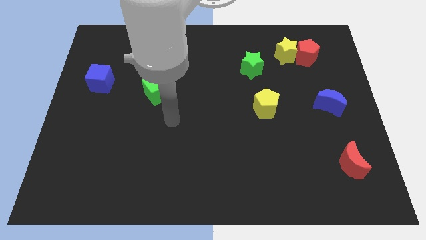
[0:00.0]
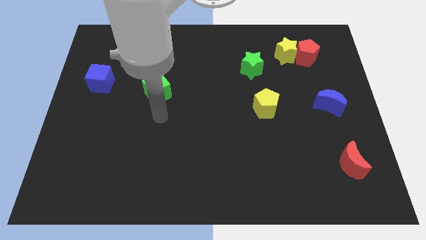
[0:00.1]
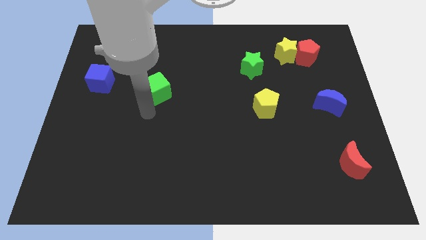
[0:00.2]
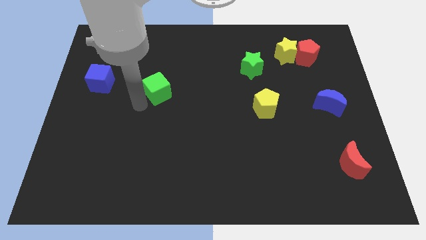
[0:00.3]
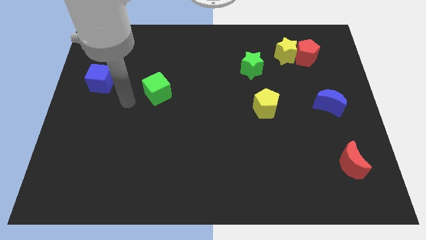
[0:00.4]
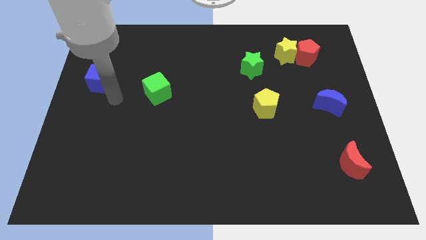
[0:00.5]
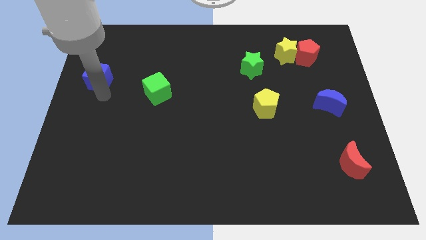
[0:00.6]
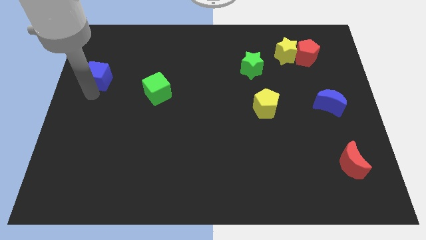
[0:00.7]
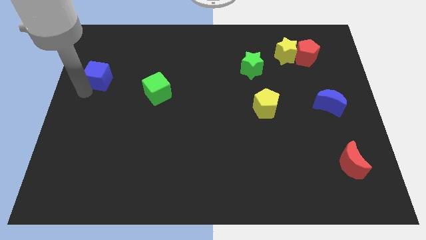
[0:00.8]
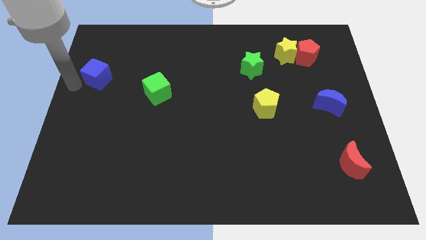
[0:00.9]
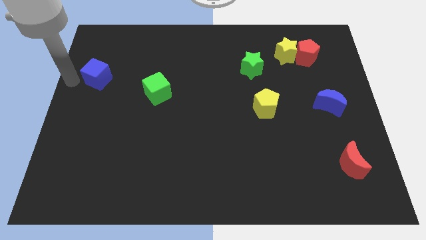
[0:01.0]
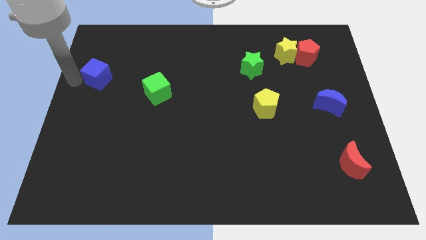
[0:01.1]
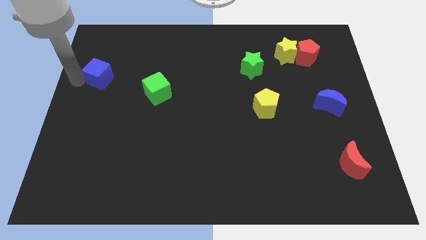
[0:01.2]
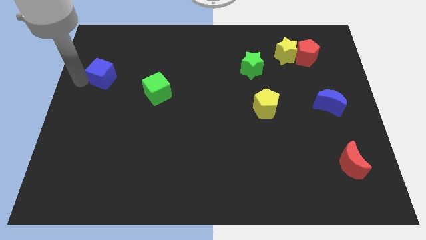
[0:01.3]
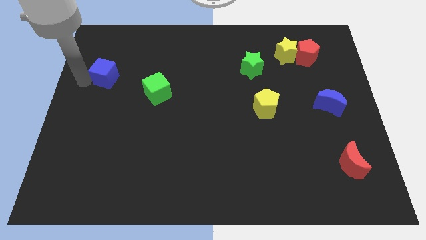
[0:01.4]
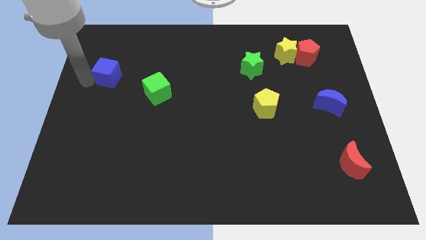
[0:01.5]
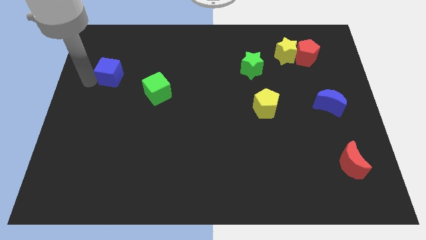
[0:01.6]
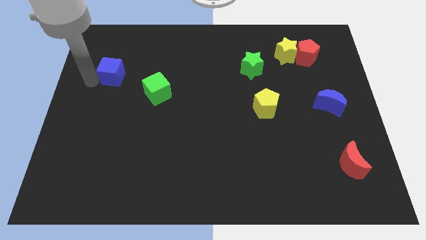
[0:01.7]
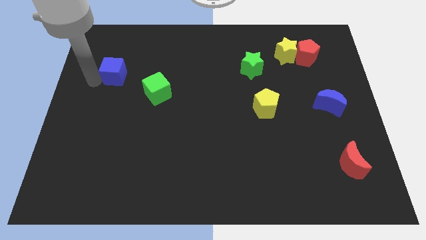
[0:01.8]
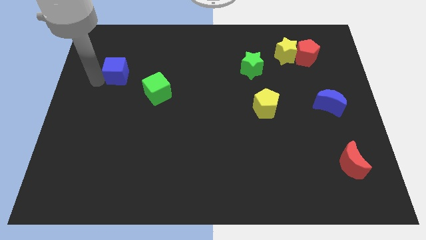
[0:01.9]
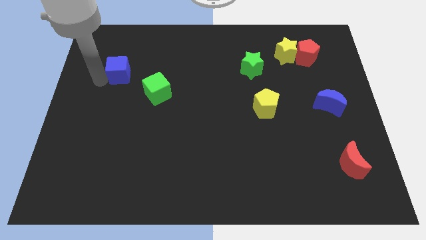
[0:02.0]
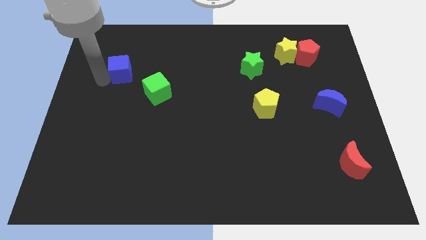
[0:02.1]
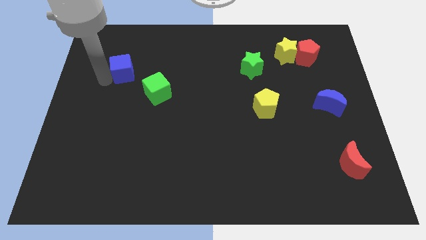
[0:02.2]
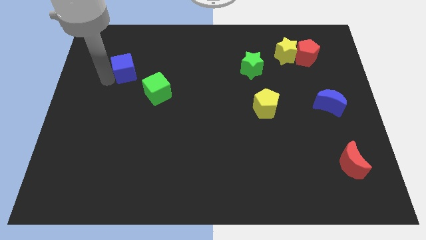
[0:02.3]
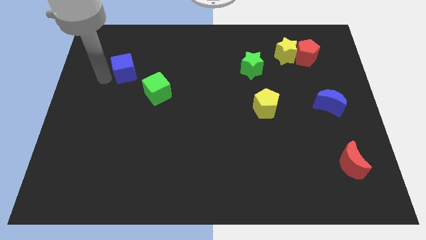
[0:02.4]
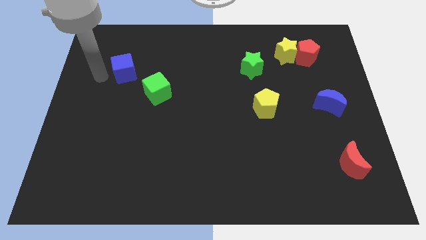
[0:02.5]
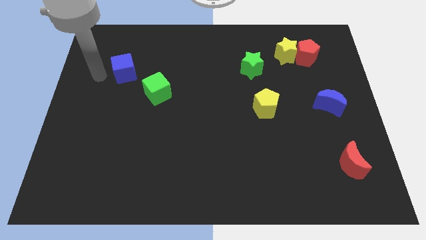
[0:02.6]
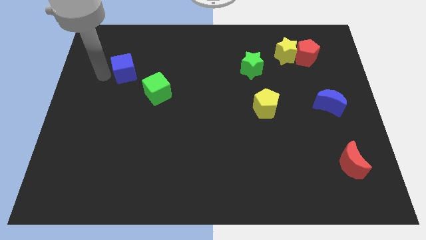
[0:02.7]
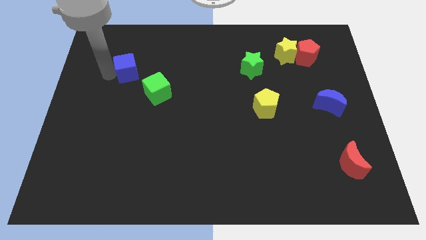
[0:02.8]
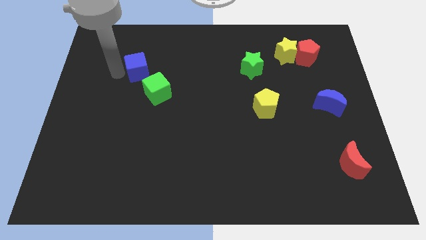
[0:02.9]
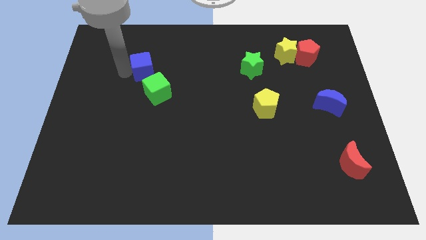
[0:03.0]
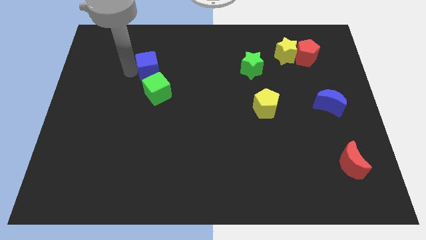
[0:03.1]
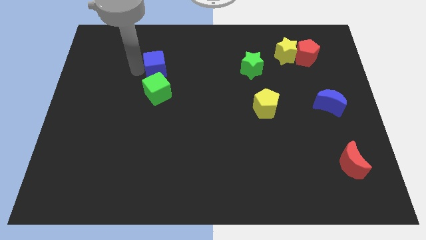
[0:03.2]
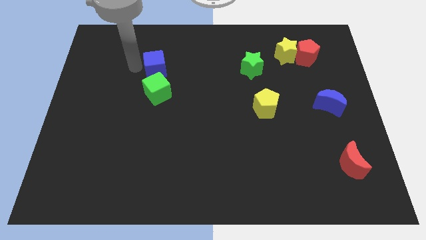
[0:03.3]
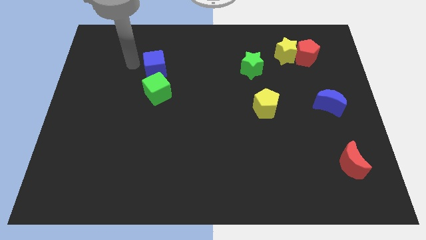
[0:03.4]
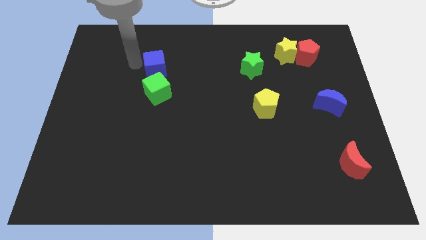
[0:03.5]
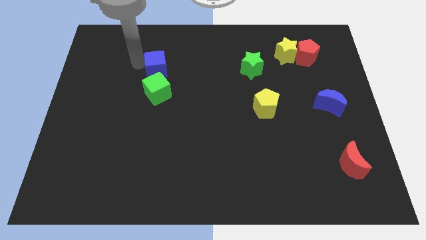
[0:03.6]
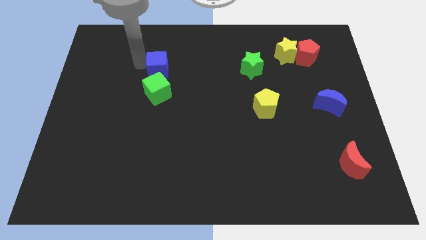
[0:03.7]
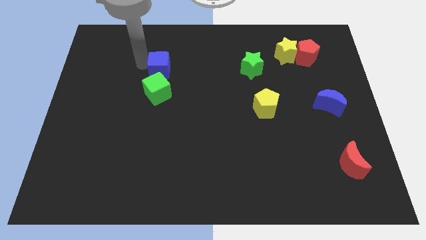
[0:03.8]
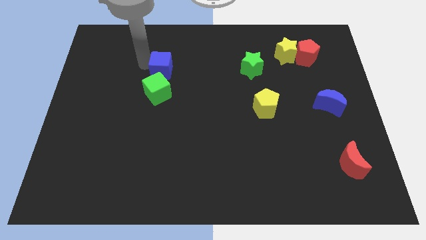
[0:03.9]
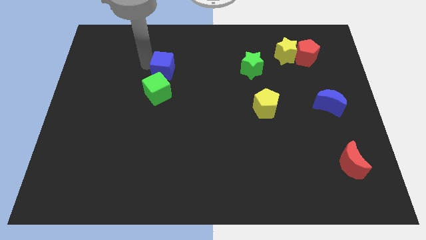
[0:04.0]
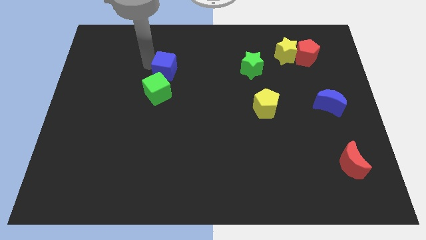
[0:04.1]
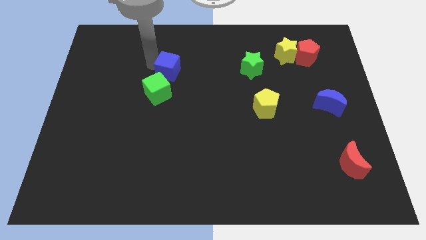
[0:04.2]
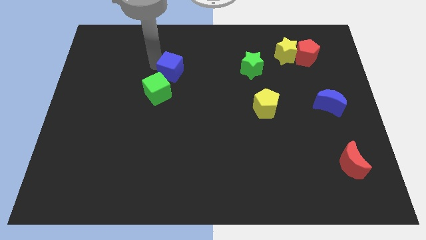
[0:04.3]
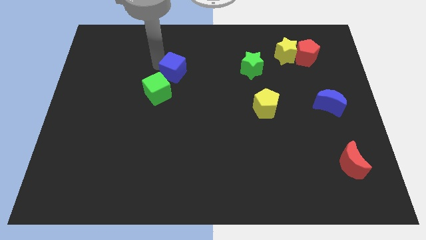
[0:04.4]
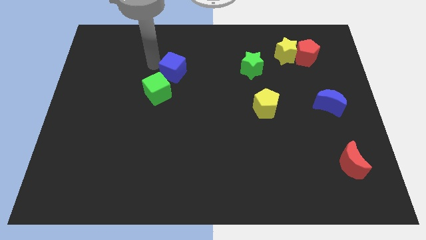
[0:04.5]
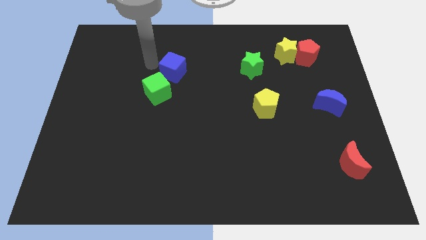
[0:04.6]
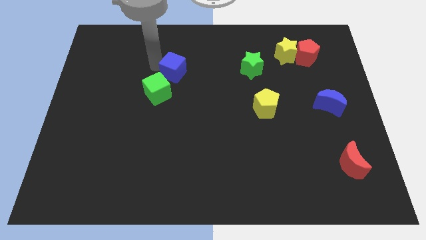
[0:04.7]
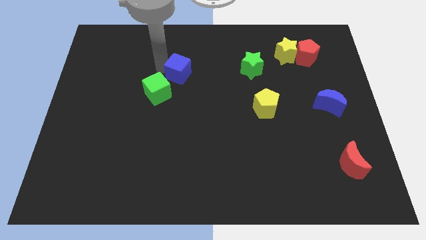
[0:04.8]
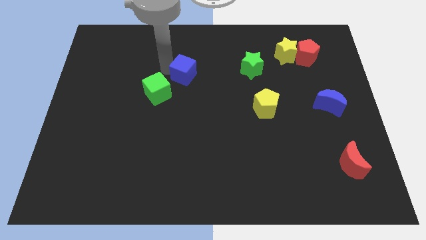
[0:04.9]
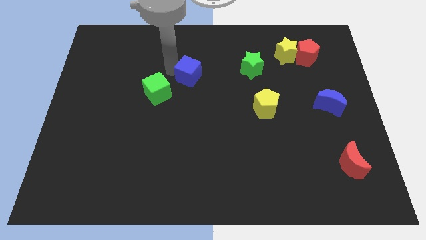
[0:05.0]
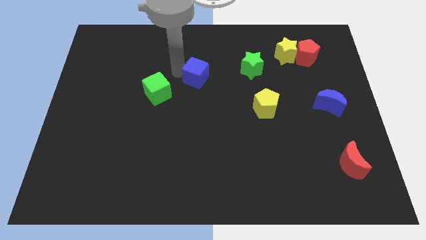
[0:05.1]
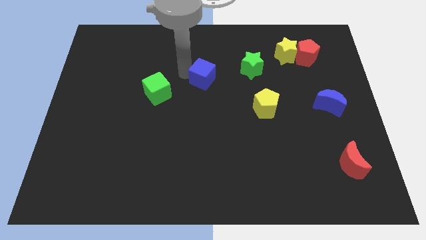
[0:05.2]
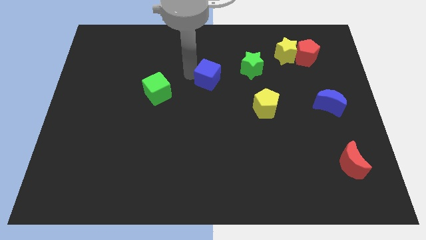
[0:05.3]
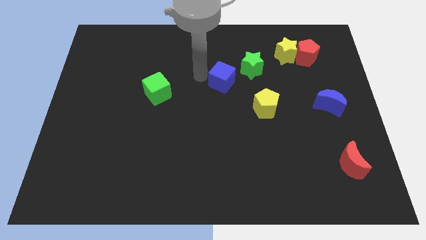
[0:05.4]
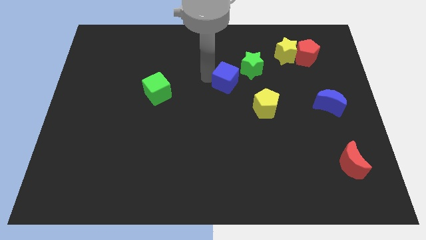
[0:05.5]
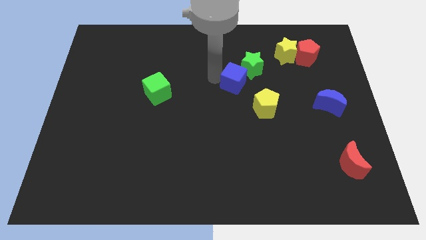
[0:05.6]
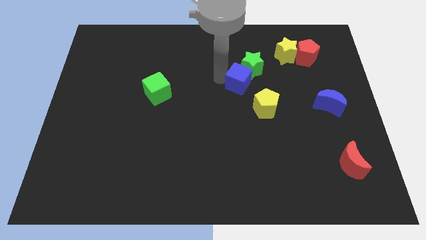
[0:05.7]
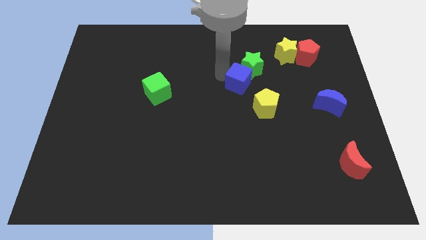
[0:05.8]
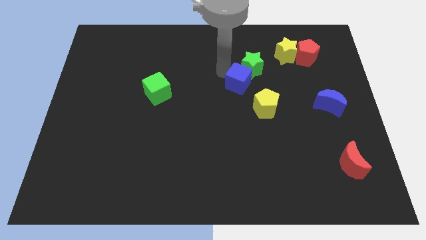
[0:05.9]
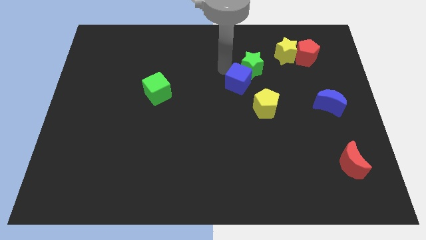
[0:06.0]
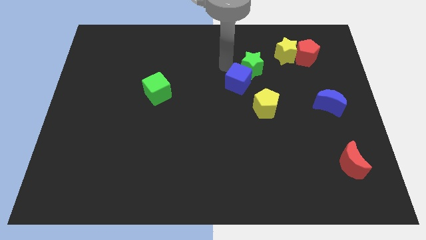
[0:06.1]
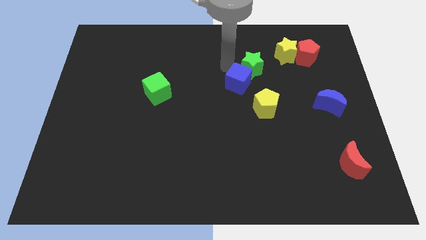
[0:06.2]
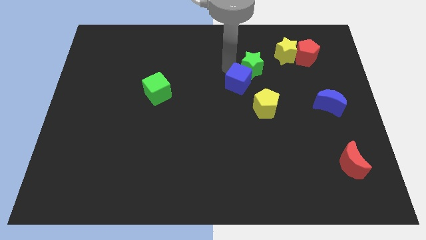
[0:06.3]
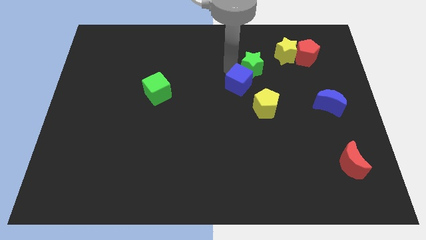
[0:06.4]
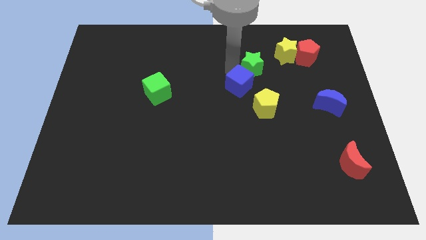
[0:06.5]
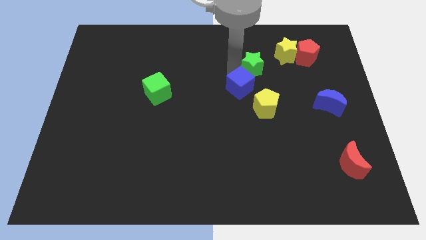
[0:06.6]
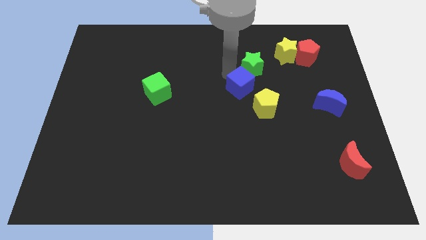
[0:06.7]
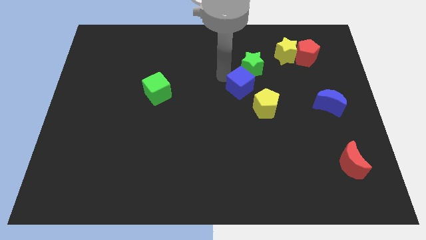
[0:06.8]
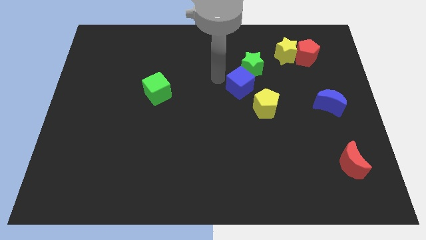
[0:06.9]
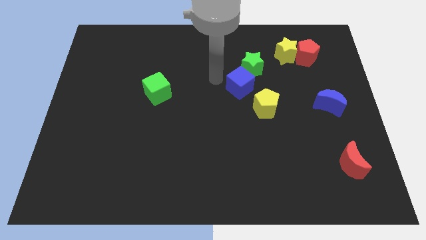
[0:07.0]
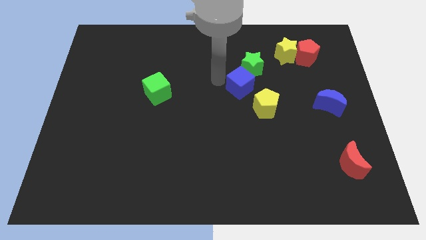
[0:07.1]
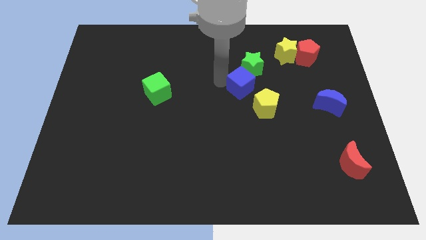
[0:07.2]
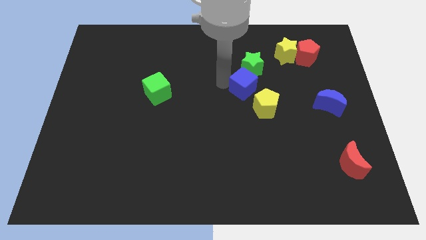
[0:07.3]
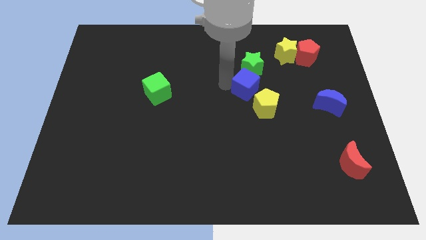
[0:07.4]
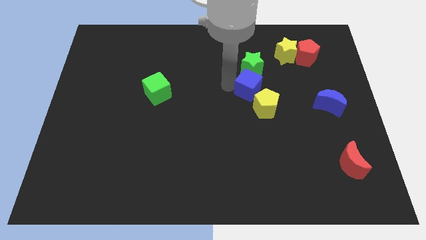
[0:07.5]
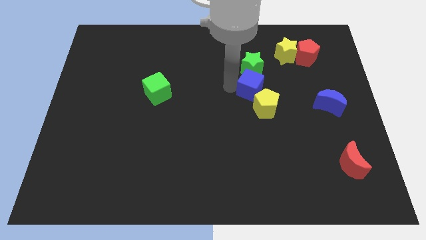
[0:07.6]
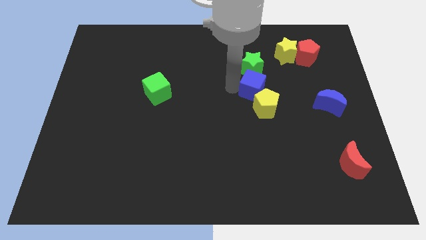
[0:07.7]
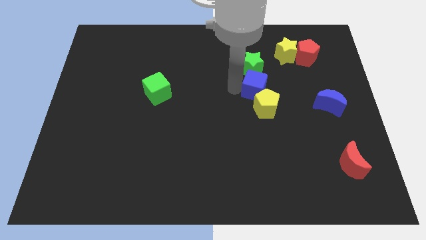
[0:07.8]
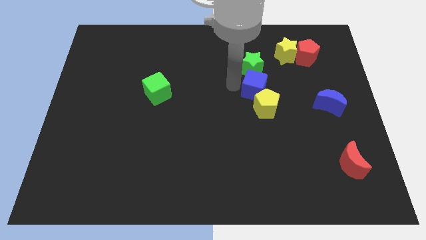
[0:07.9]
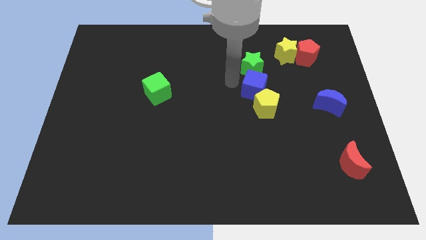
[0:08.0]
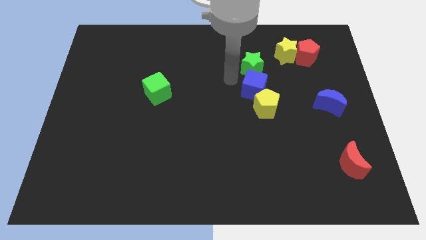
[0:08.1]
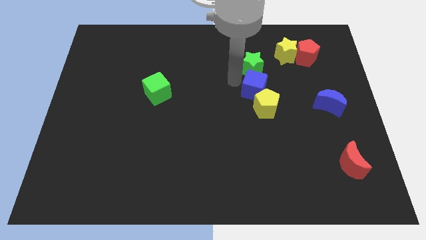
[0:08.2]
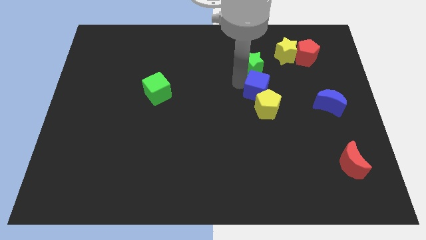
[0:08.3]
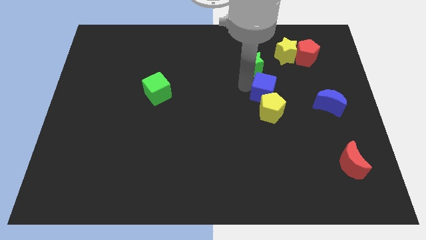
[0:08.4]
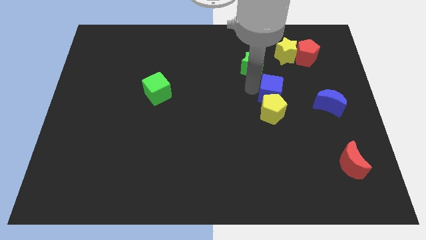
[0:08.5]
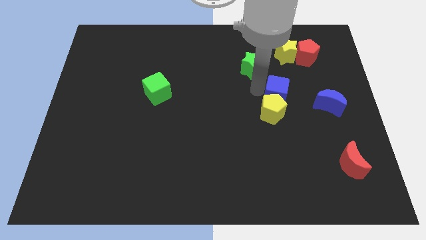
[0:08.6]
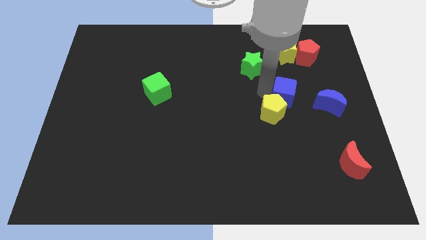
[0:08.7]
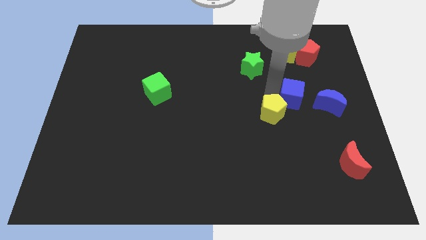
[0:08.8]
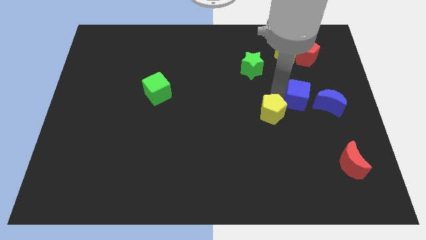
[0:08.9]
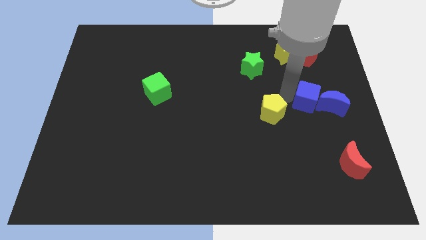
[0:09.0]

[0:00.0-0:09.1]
slide the blue cube next to the blue moon
